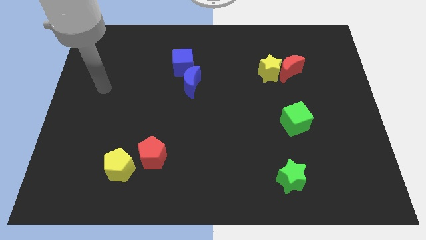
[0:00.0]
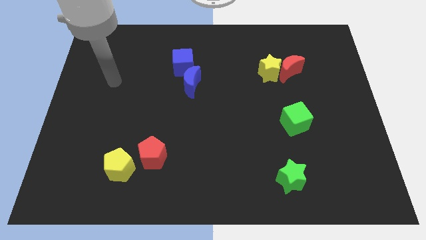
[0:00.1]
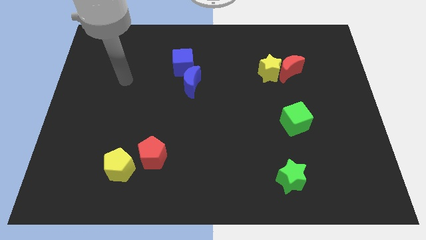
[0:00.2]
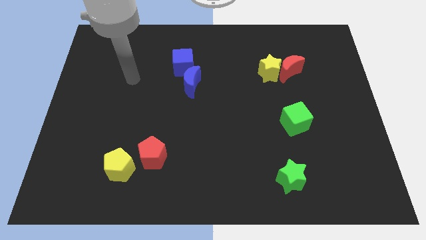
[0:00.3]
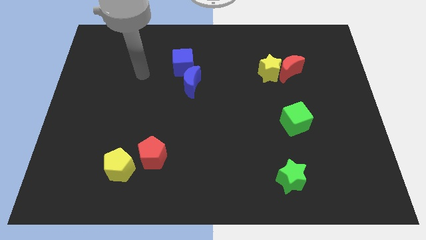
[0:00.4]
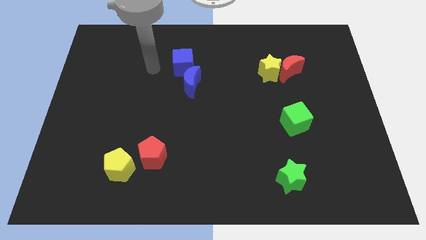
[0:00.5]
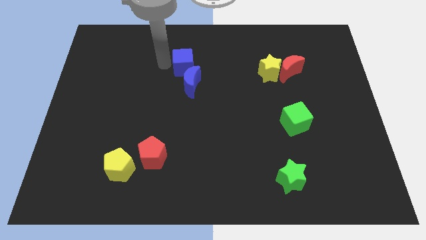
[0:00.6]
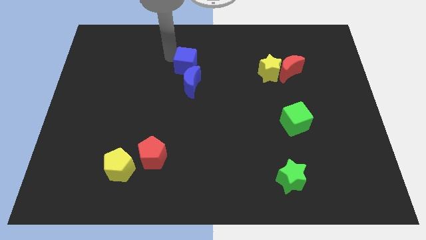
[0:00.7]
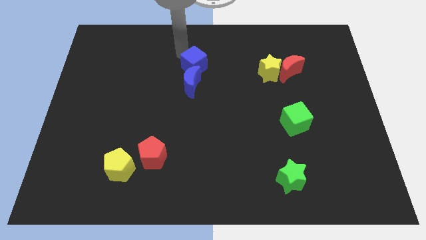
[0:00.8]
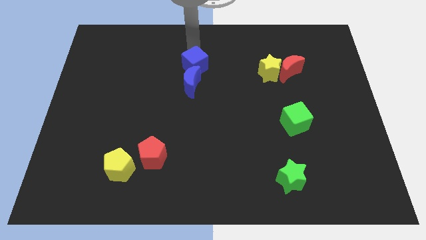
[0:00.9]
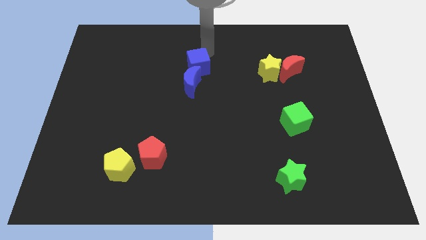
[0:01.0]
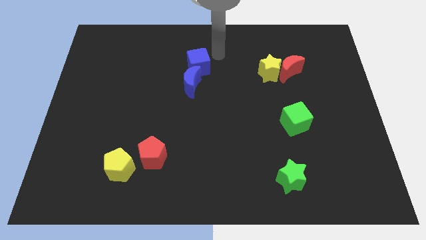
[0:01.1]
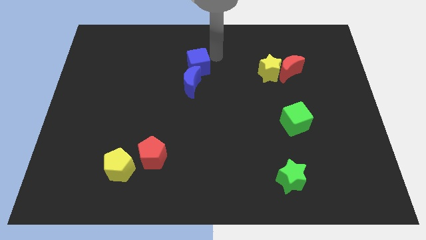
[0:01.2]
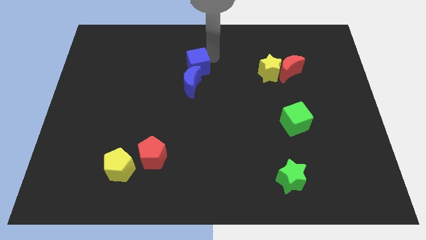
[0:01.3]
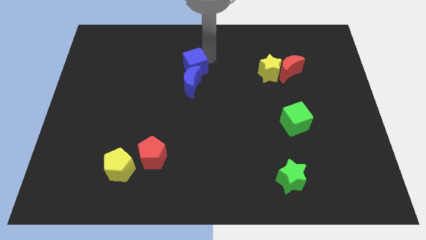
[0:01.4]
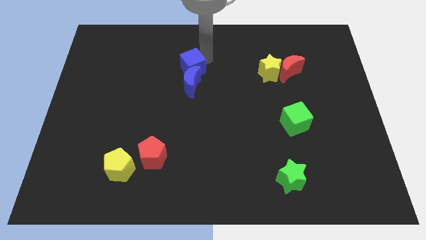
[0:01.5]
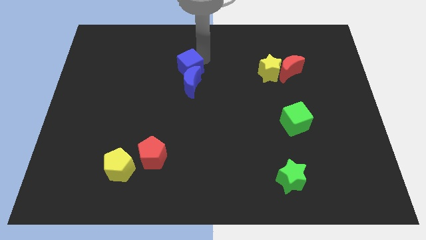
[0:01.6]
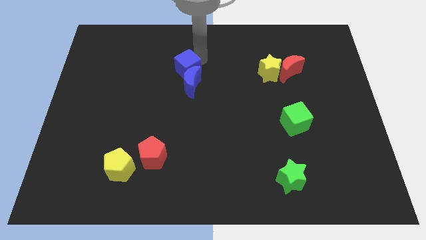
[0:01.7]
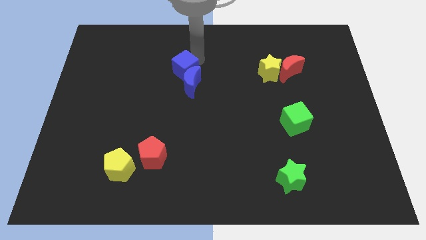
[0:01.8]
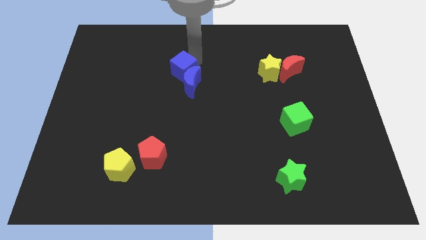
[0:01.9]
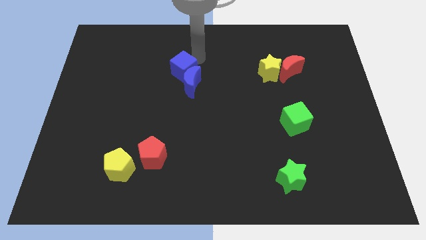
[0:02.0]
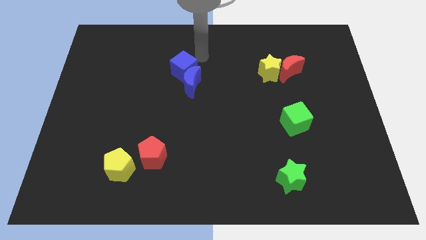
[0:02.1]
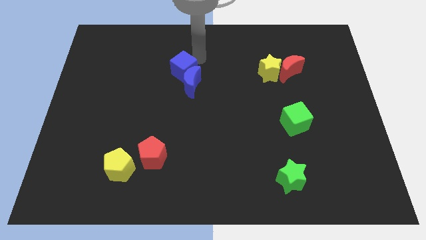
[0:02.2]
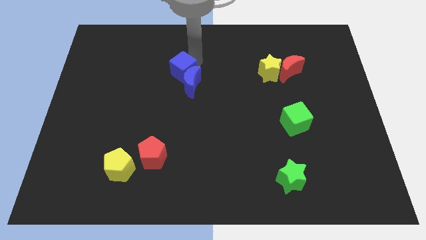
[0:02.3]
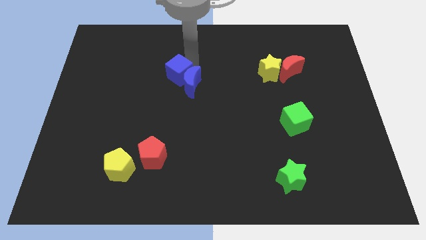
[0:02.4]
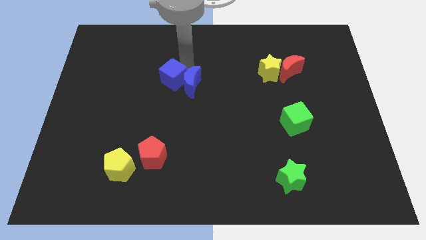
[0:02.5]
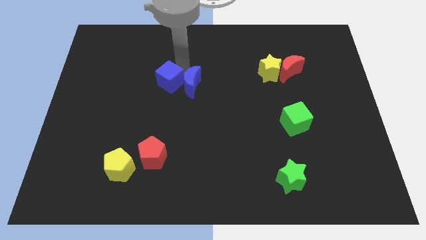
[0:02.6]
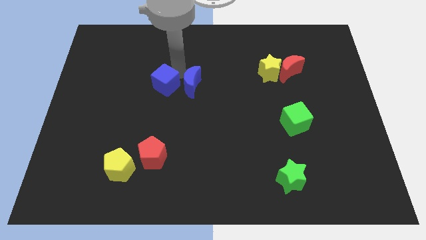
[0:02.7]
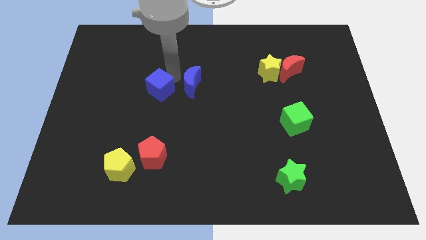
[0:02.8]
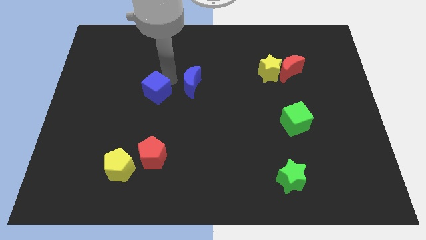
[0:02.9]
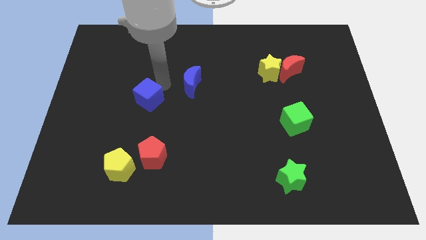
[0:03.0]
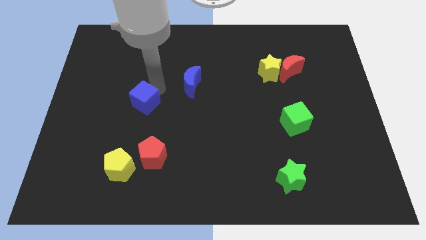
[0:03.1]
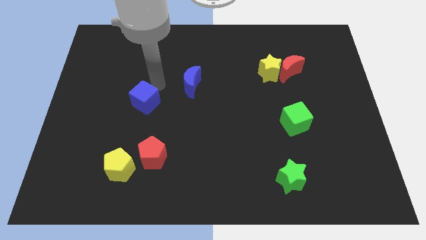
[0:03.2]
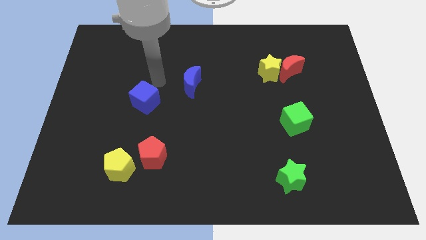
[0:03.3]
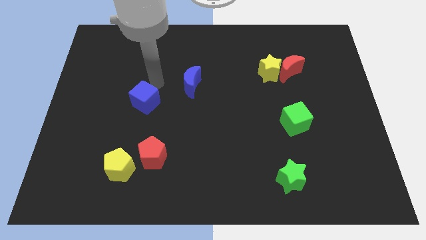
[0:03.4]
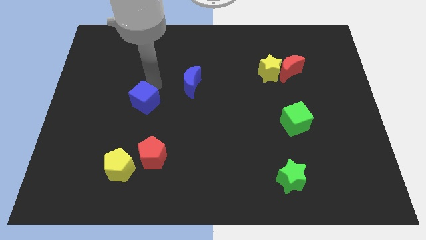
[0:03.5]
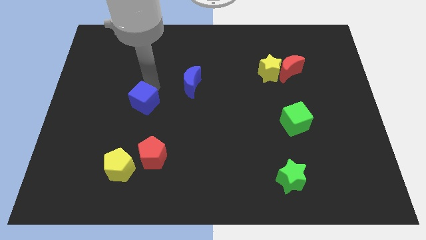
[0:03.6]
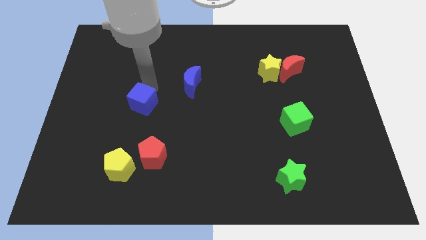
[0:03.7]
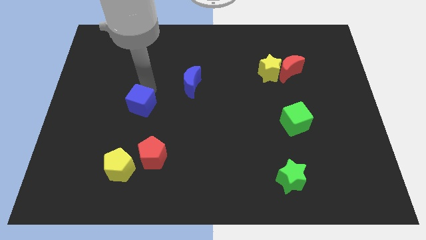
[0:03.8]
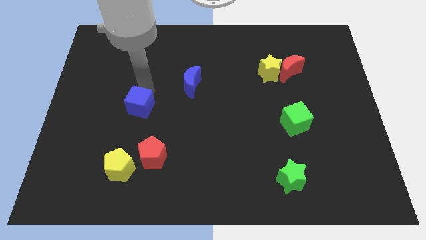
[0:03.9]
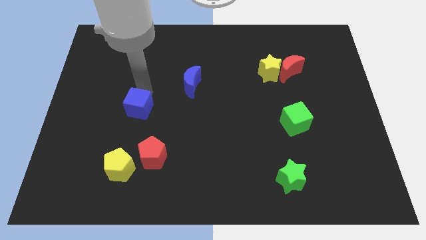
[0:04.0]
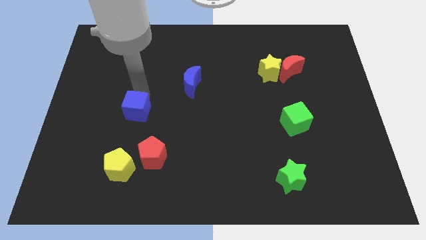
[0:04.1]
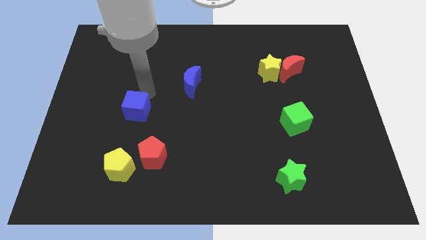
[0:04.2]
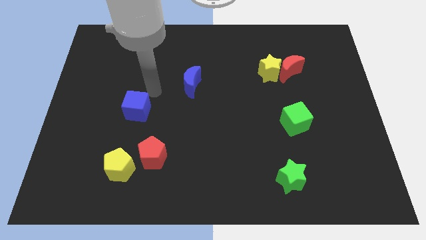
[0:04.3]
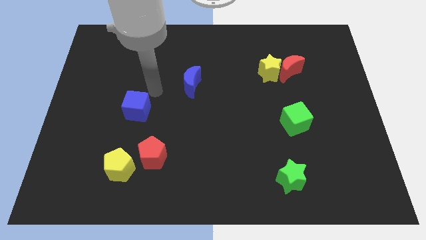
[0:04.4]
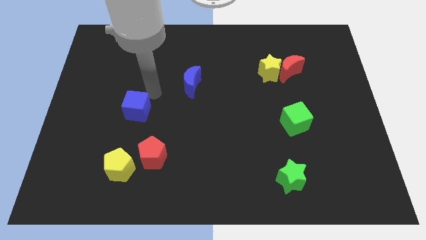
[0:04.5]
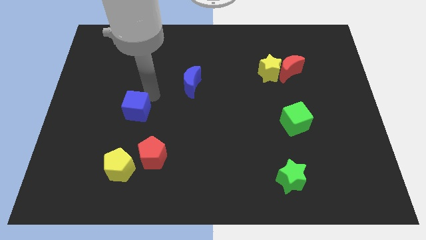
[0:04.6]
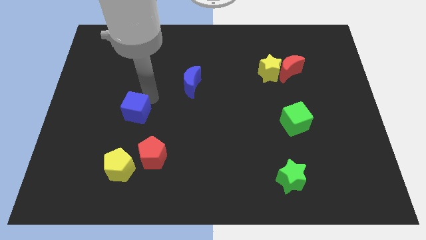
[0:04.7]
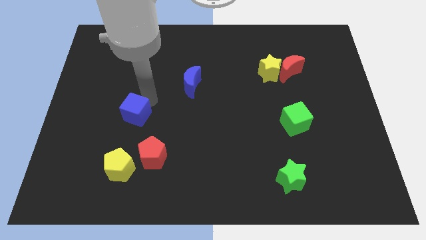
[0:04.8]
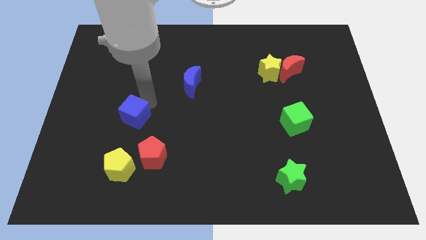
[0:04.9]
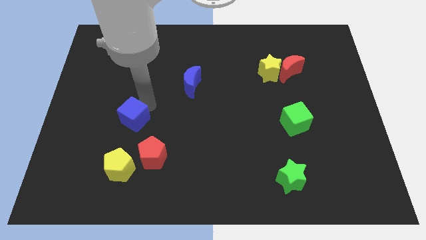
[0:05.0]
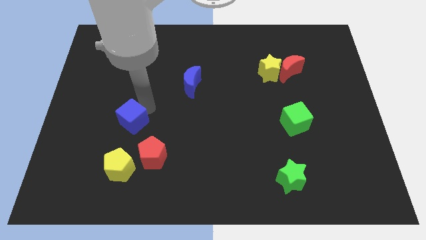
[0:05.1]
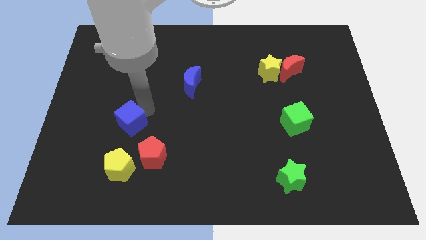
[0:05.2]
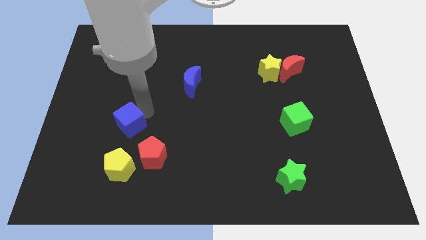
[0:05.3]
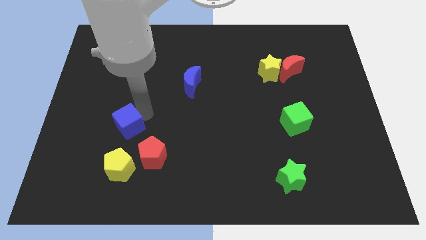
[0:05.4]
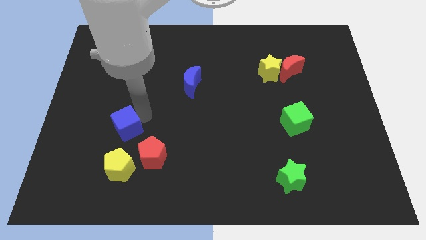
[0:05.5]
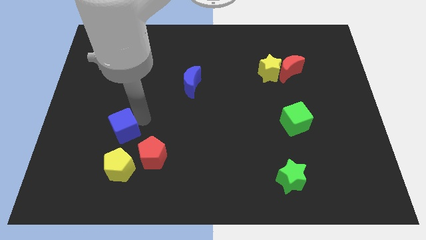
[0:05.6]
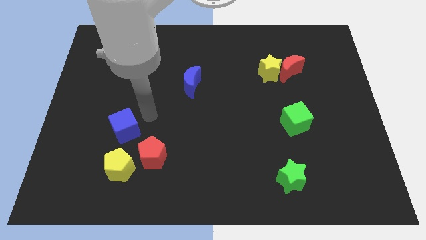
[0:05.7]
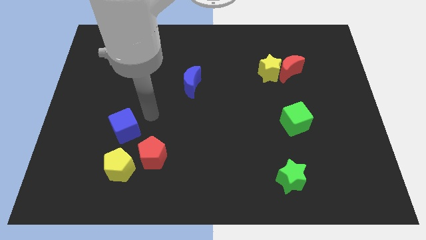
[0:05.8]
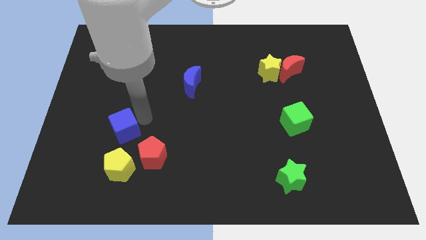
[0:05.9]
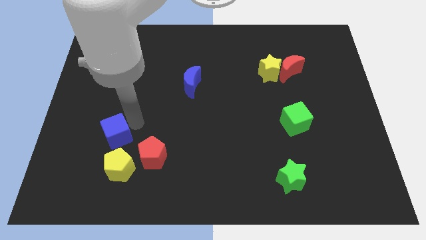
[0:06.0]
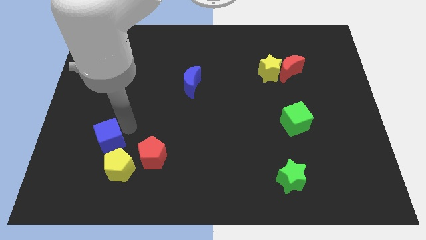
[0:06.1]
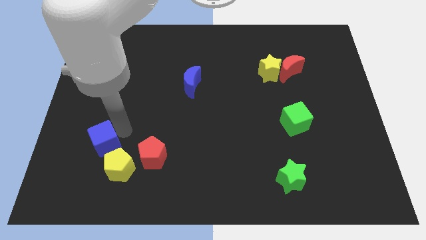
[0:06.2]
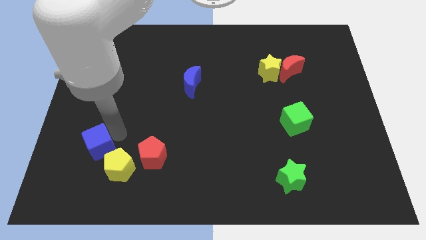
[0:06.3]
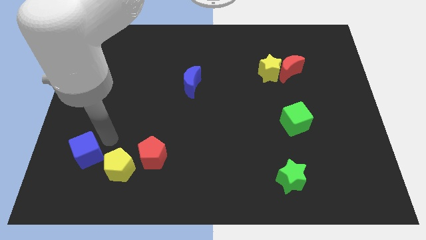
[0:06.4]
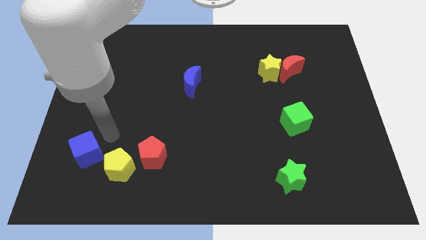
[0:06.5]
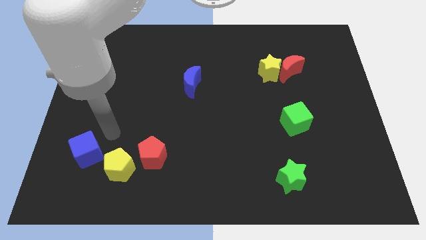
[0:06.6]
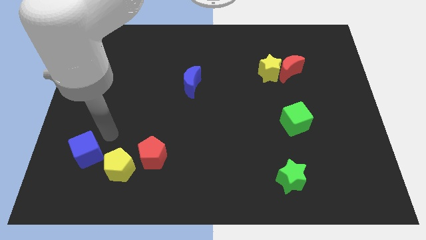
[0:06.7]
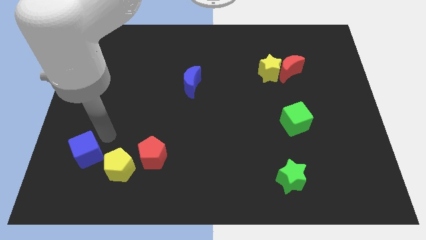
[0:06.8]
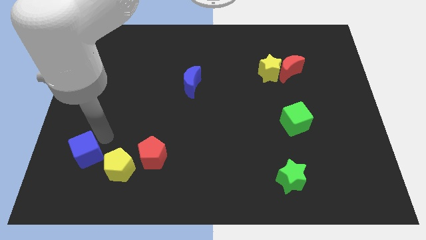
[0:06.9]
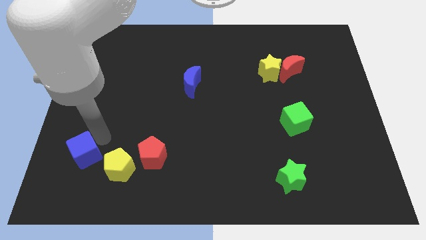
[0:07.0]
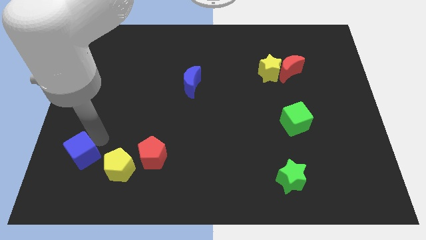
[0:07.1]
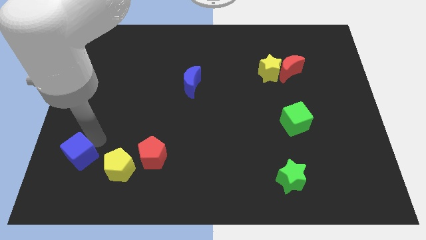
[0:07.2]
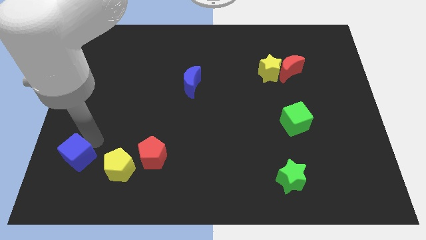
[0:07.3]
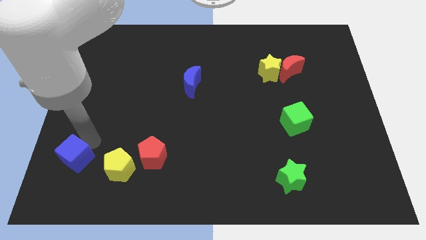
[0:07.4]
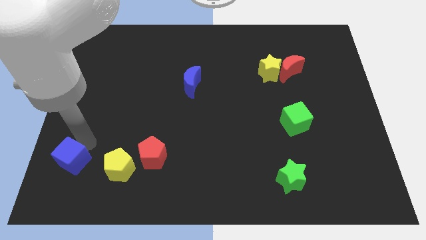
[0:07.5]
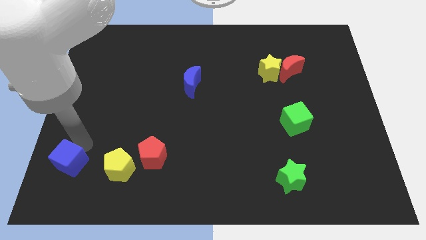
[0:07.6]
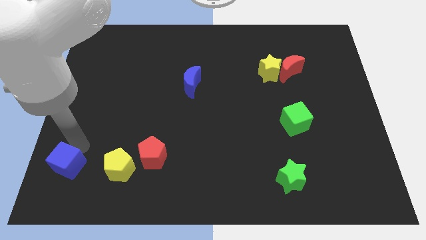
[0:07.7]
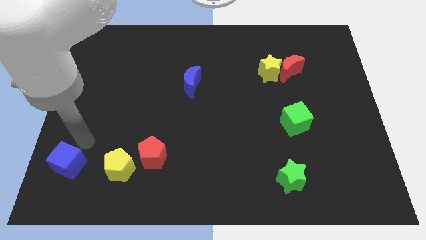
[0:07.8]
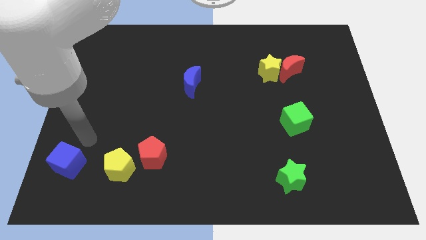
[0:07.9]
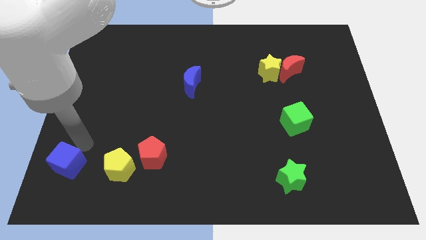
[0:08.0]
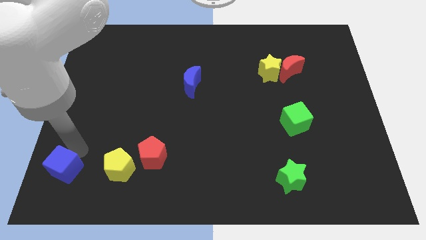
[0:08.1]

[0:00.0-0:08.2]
put the blue cube to the lower left corner
